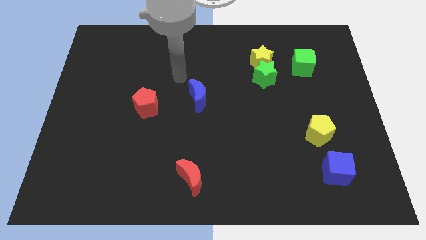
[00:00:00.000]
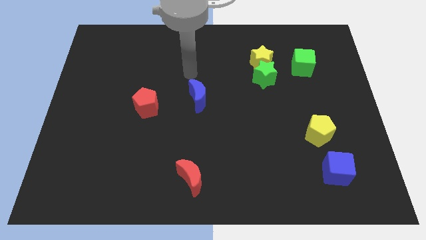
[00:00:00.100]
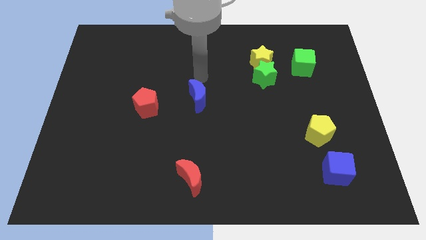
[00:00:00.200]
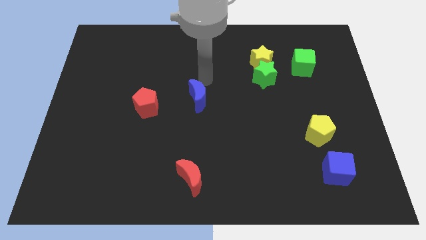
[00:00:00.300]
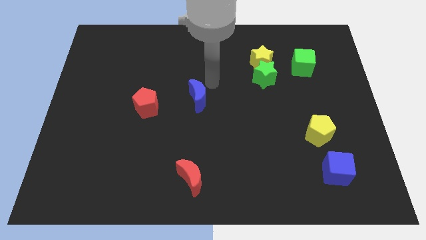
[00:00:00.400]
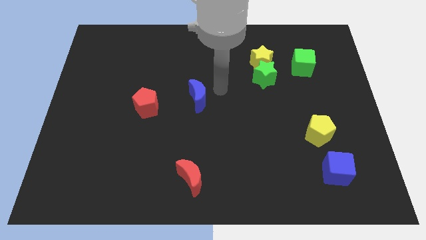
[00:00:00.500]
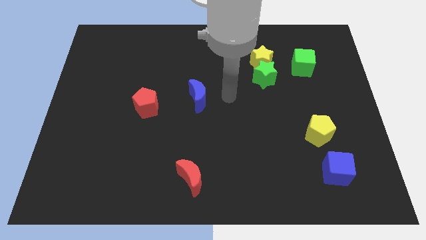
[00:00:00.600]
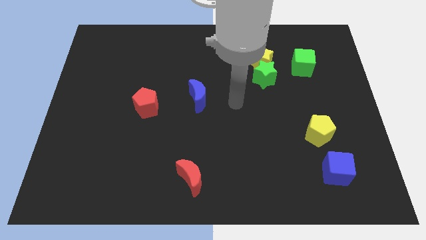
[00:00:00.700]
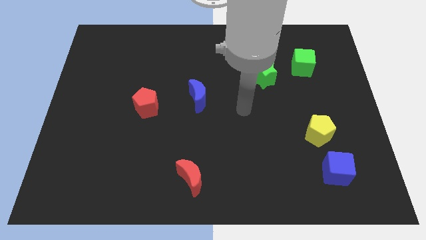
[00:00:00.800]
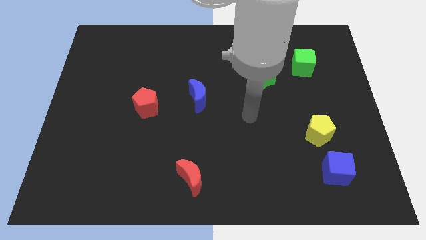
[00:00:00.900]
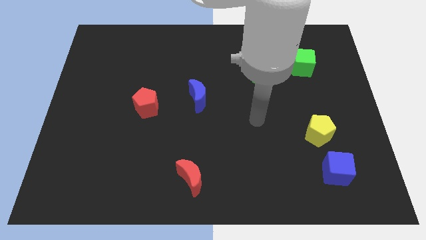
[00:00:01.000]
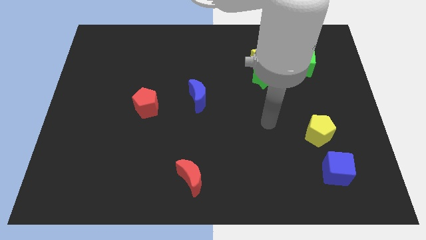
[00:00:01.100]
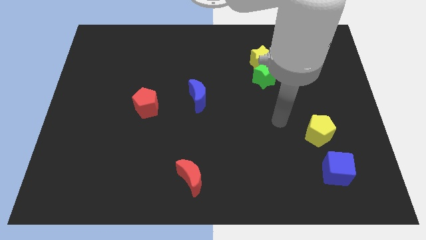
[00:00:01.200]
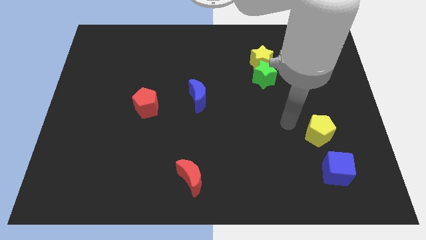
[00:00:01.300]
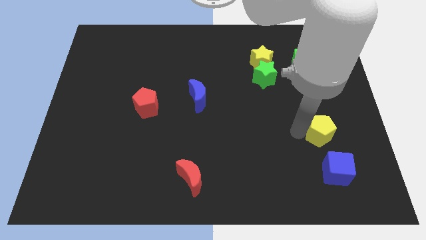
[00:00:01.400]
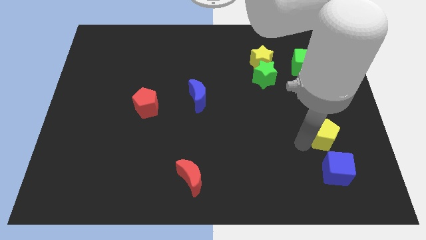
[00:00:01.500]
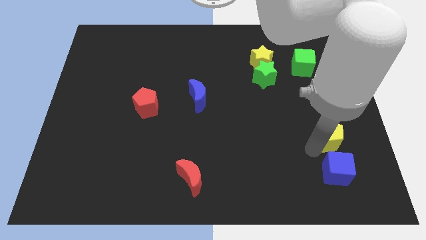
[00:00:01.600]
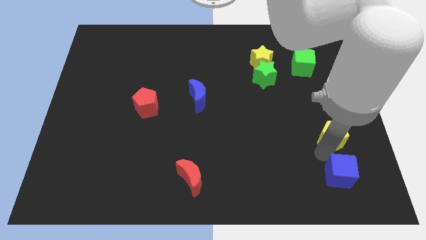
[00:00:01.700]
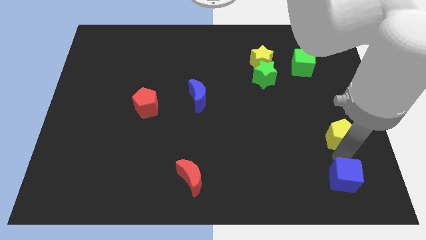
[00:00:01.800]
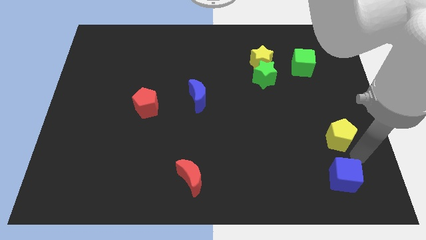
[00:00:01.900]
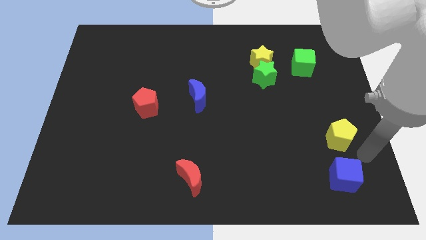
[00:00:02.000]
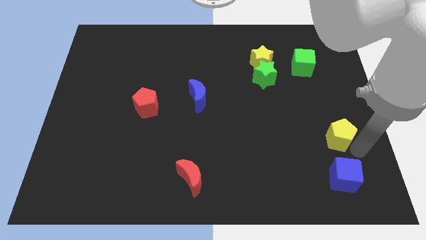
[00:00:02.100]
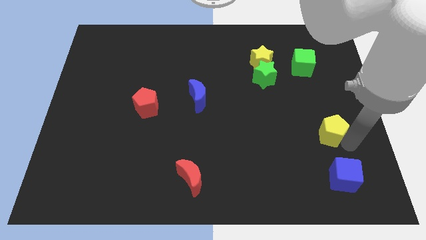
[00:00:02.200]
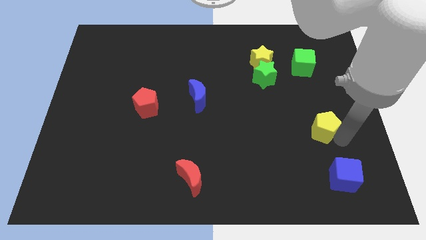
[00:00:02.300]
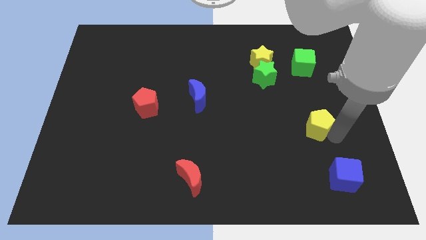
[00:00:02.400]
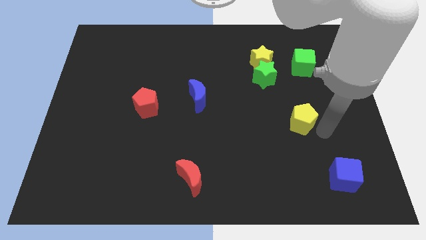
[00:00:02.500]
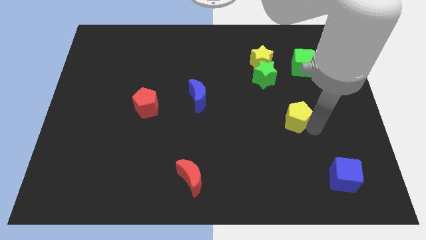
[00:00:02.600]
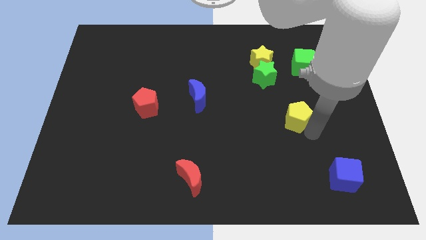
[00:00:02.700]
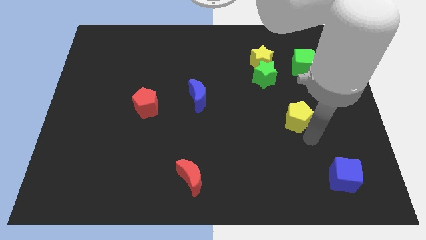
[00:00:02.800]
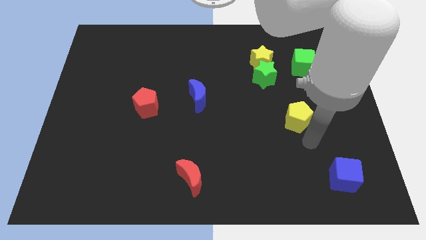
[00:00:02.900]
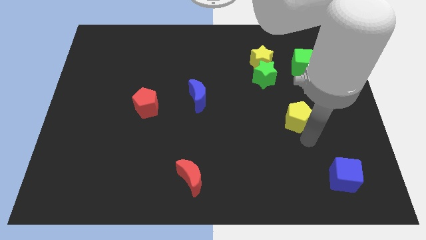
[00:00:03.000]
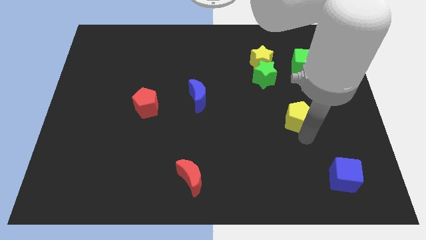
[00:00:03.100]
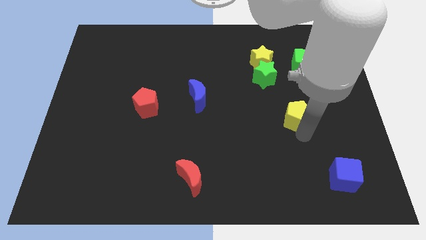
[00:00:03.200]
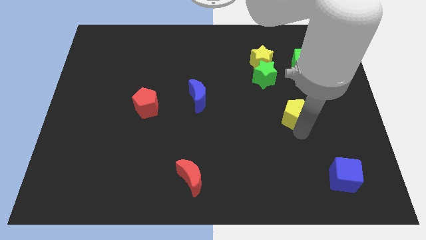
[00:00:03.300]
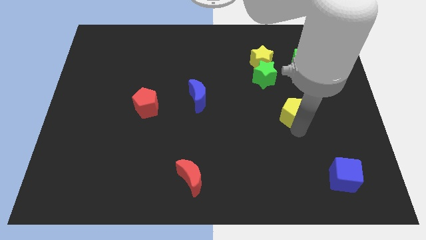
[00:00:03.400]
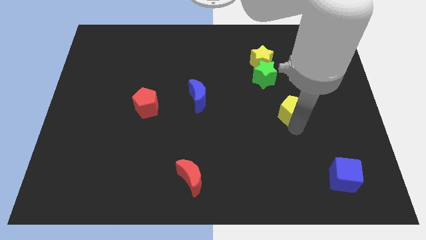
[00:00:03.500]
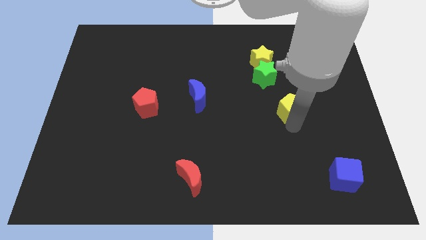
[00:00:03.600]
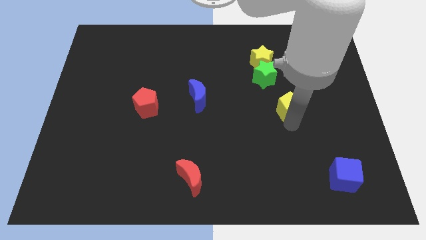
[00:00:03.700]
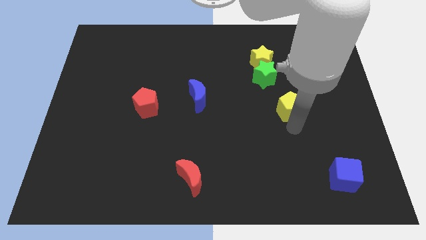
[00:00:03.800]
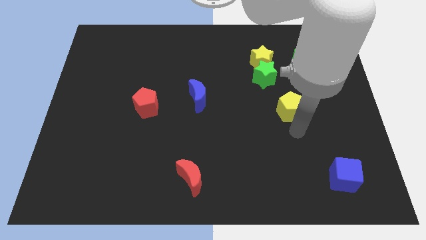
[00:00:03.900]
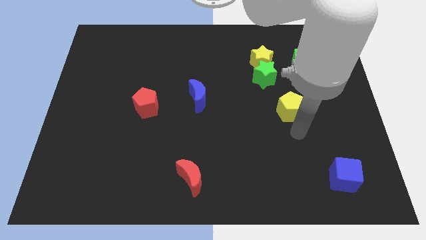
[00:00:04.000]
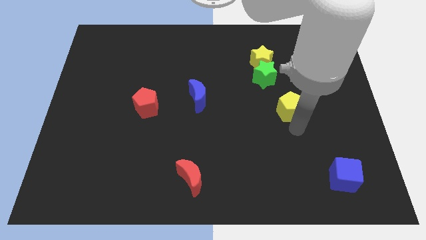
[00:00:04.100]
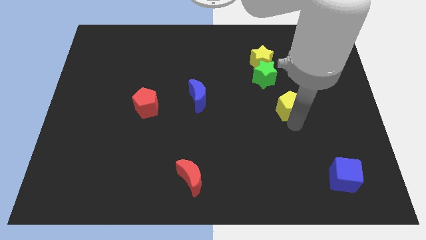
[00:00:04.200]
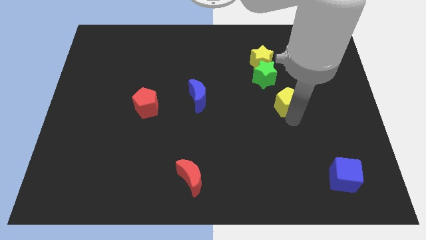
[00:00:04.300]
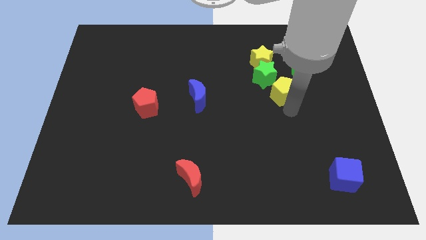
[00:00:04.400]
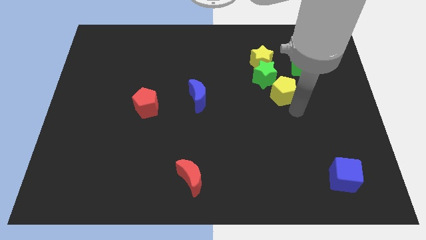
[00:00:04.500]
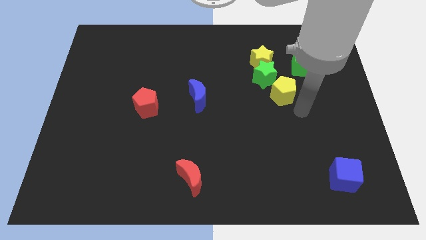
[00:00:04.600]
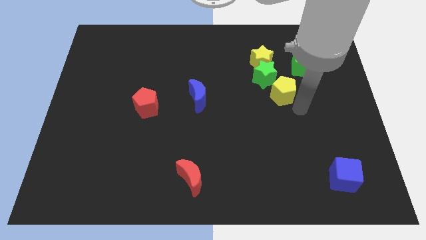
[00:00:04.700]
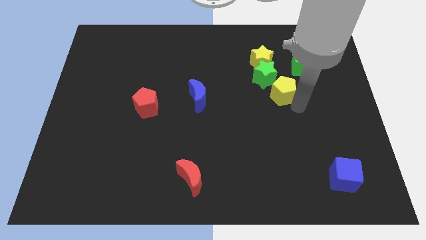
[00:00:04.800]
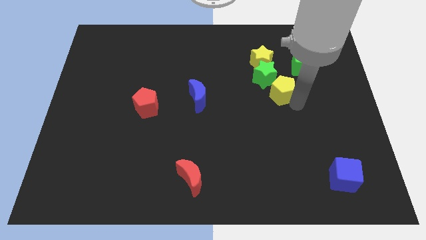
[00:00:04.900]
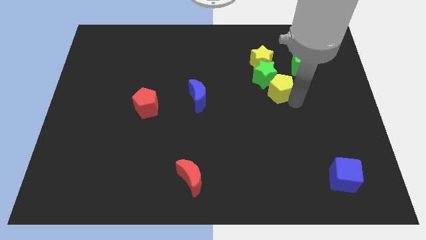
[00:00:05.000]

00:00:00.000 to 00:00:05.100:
slide the yellow pentagon close to the green star

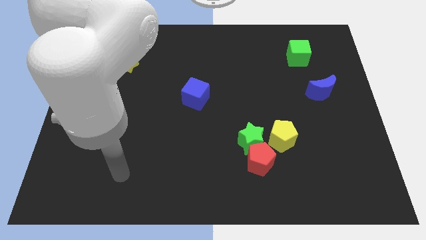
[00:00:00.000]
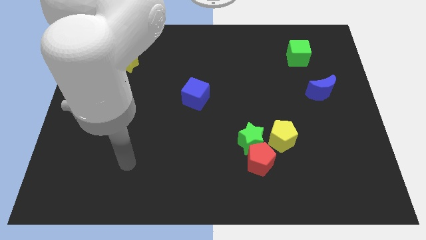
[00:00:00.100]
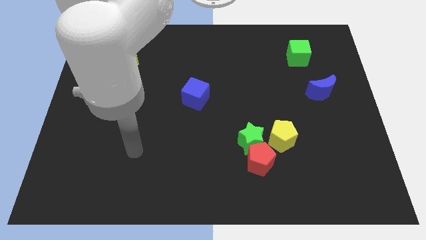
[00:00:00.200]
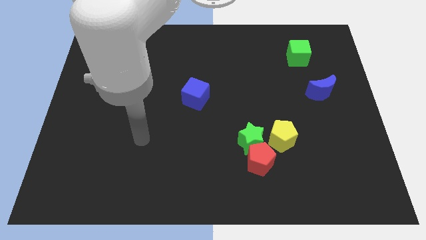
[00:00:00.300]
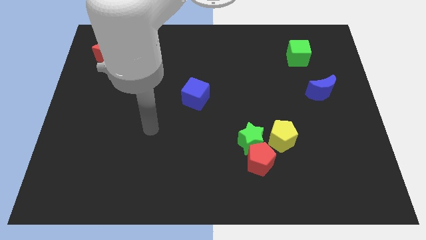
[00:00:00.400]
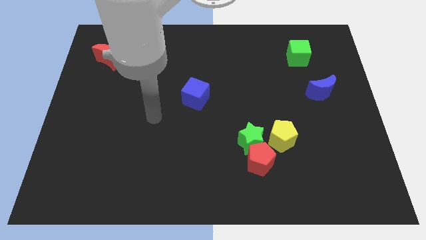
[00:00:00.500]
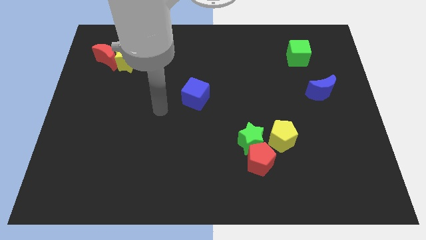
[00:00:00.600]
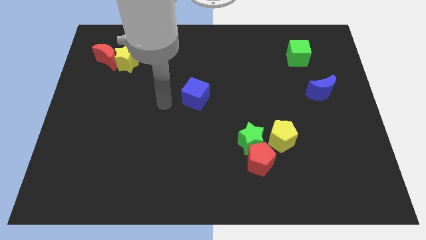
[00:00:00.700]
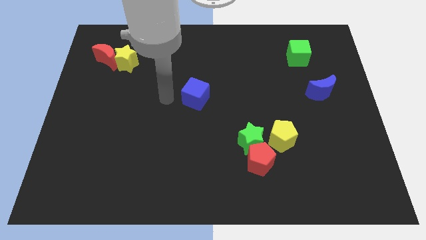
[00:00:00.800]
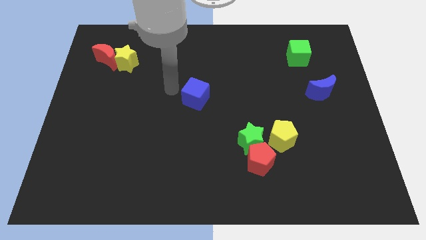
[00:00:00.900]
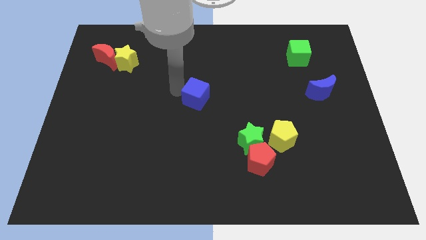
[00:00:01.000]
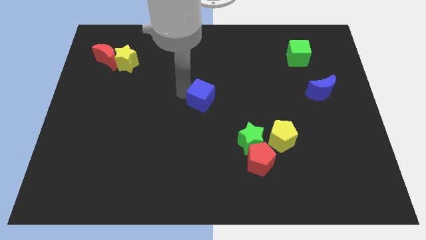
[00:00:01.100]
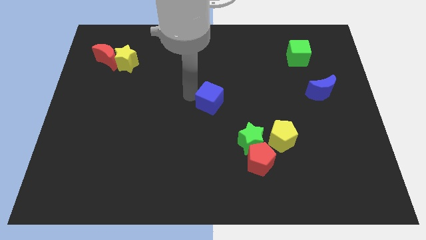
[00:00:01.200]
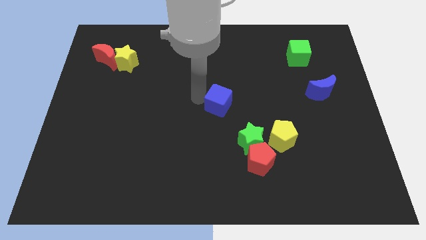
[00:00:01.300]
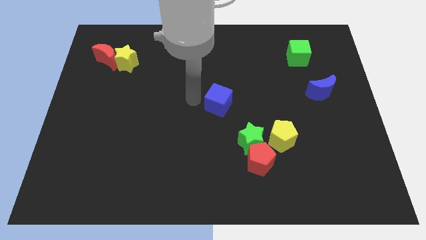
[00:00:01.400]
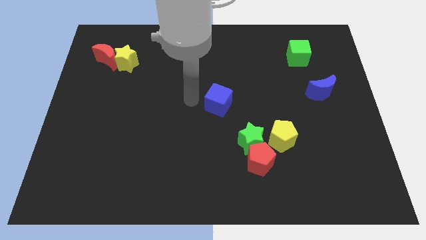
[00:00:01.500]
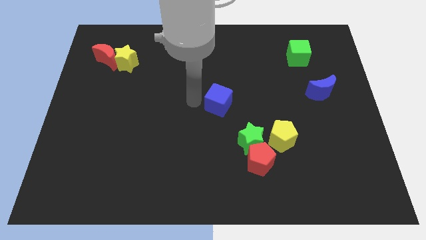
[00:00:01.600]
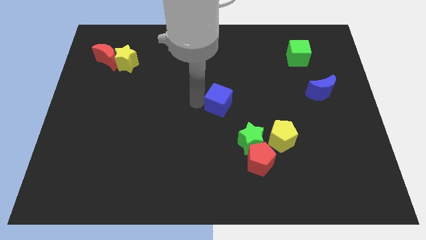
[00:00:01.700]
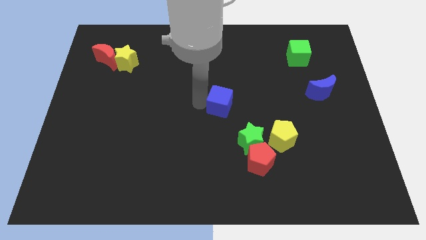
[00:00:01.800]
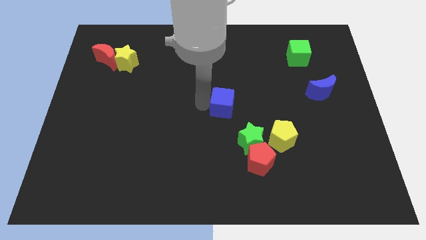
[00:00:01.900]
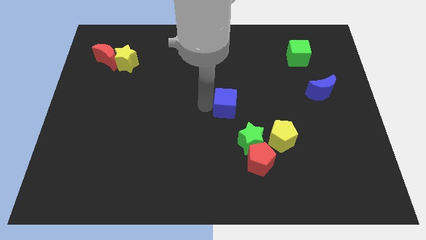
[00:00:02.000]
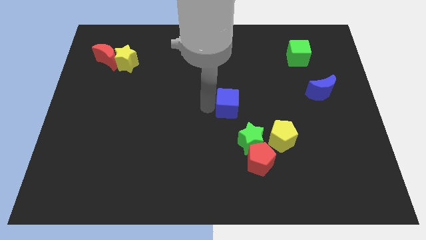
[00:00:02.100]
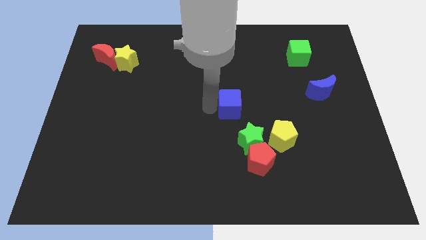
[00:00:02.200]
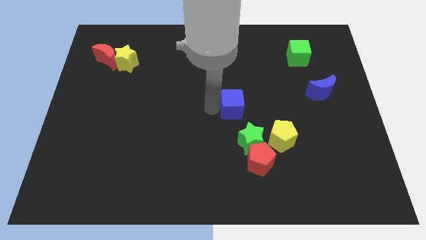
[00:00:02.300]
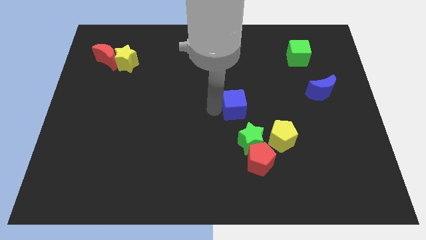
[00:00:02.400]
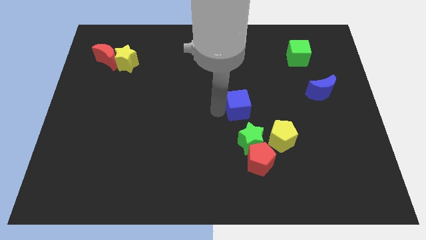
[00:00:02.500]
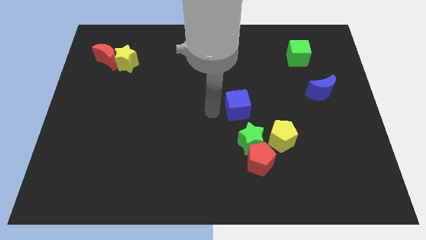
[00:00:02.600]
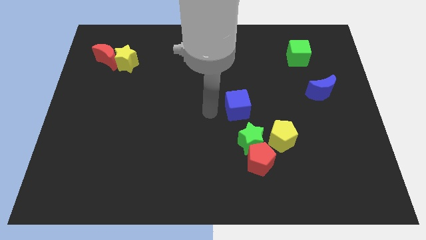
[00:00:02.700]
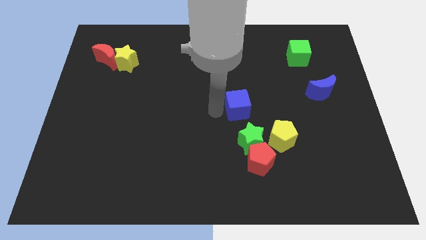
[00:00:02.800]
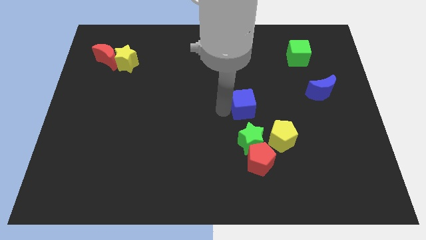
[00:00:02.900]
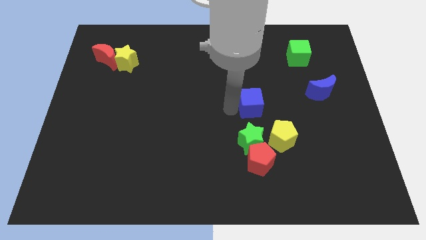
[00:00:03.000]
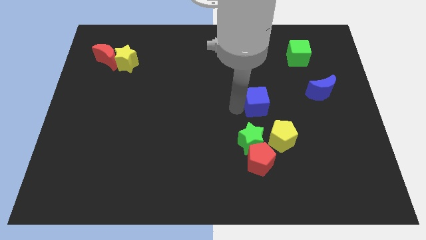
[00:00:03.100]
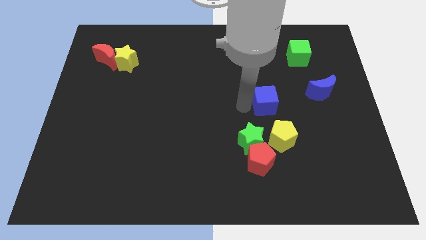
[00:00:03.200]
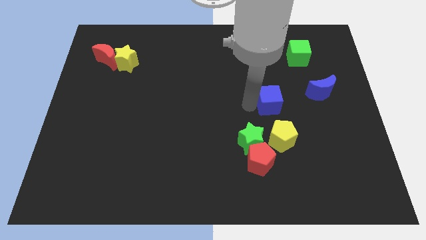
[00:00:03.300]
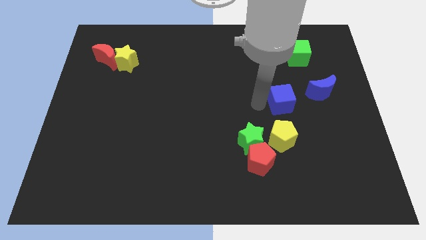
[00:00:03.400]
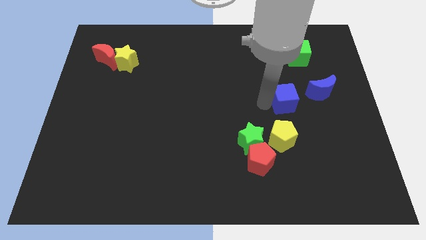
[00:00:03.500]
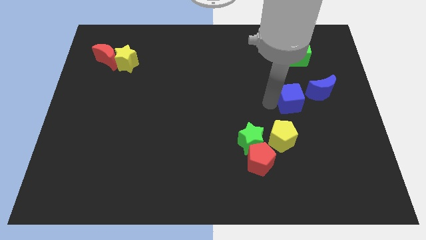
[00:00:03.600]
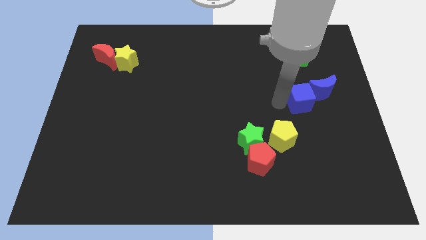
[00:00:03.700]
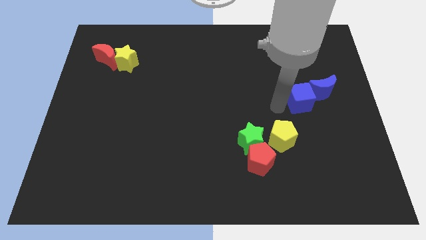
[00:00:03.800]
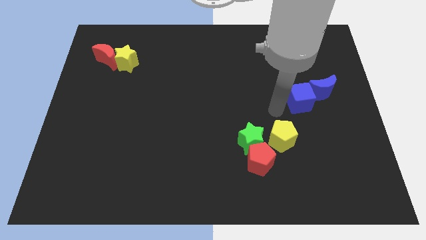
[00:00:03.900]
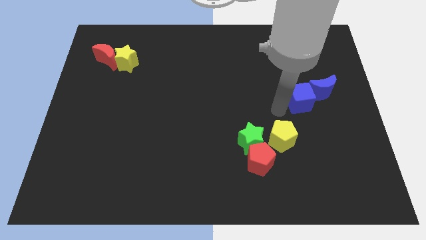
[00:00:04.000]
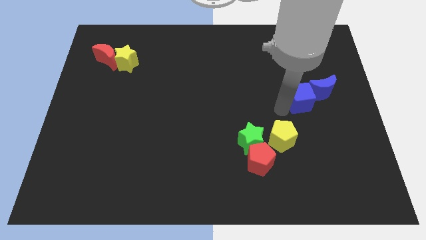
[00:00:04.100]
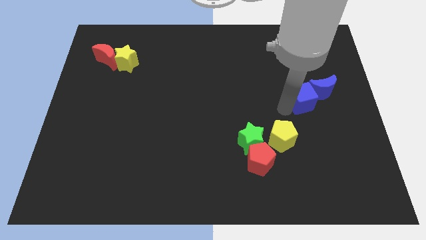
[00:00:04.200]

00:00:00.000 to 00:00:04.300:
push the blue cube to the blue moon
